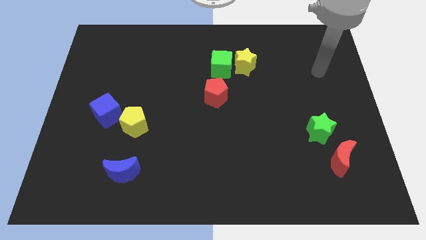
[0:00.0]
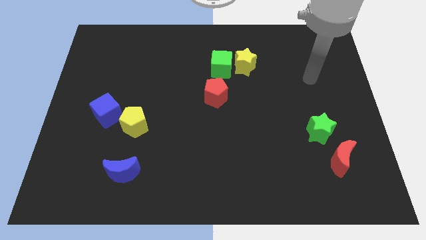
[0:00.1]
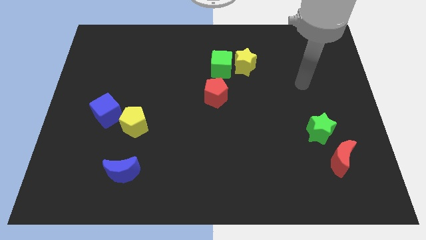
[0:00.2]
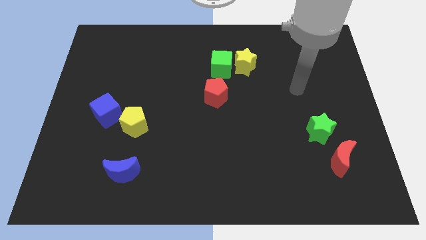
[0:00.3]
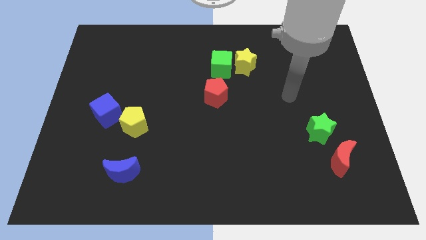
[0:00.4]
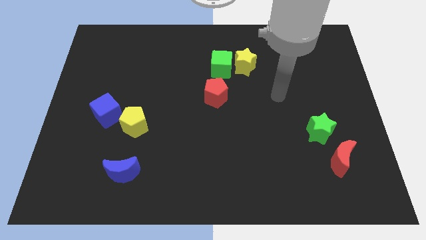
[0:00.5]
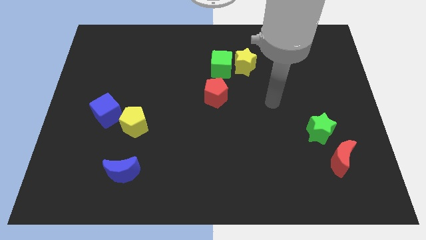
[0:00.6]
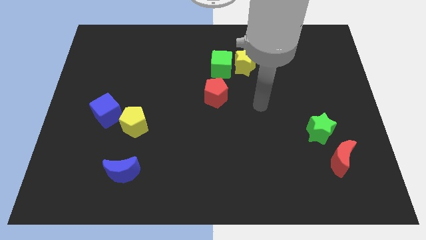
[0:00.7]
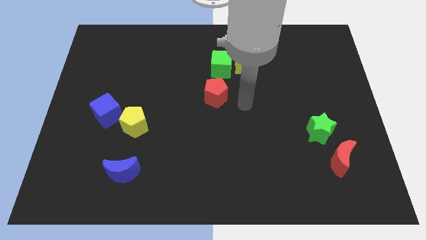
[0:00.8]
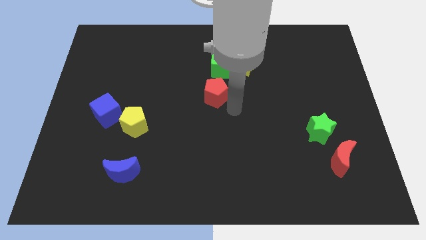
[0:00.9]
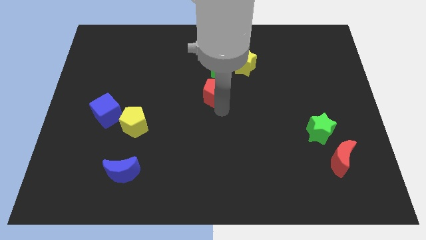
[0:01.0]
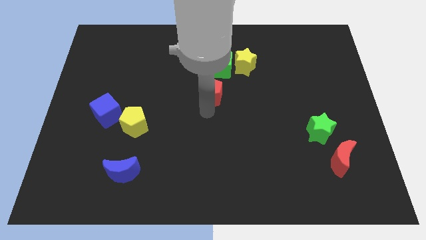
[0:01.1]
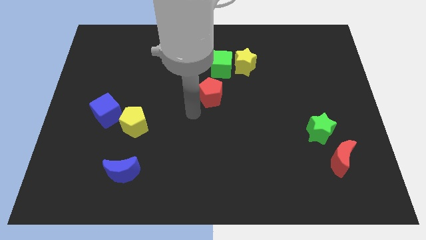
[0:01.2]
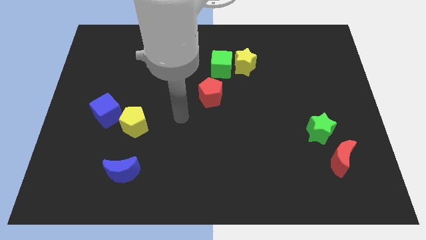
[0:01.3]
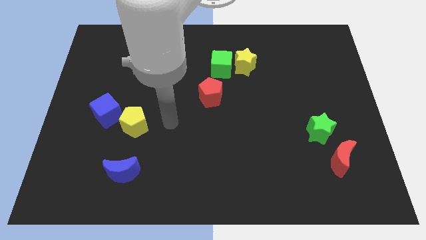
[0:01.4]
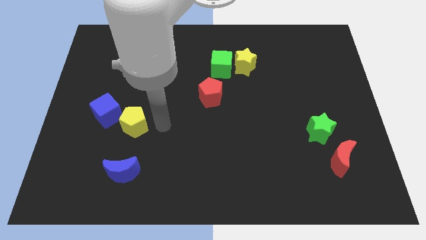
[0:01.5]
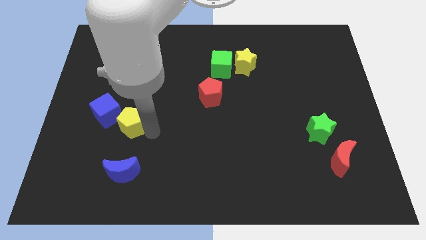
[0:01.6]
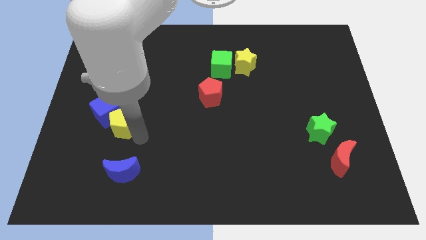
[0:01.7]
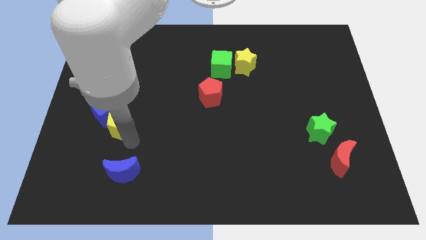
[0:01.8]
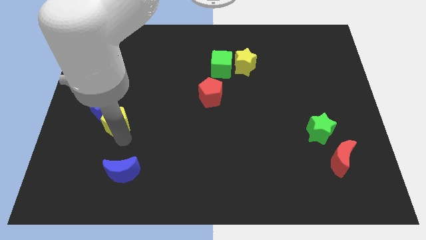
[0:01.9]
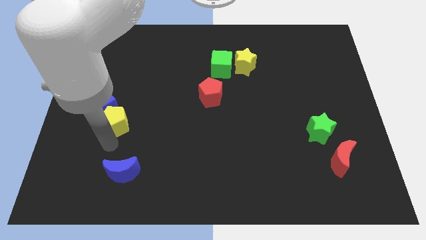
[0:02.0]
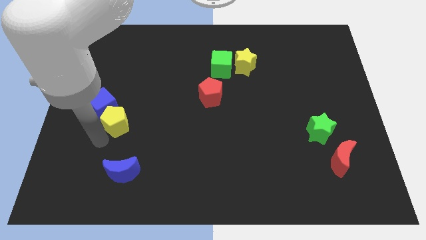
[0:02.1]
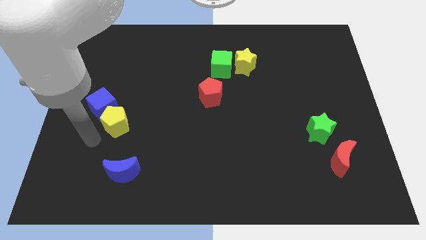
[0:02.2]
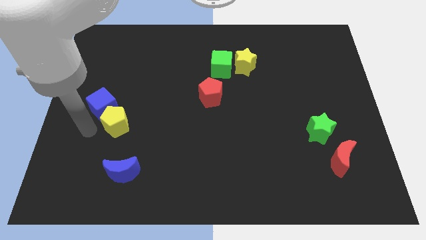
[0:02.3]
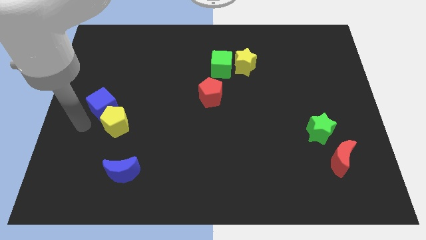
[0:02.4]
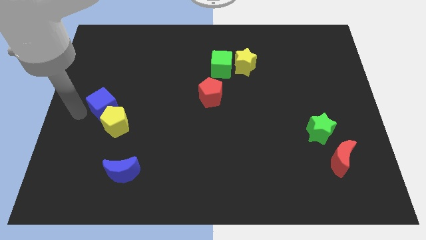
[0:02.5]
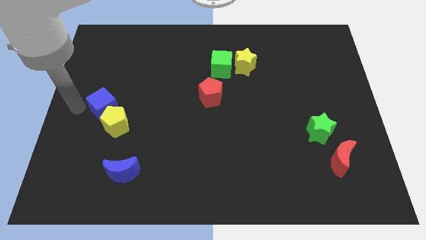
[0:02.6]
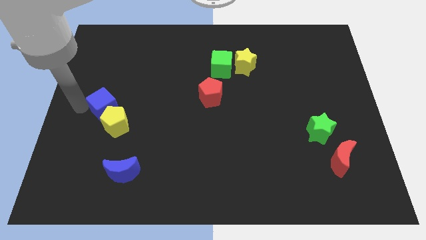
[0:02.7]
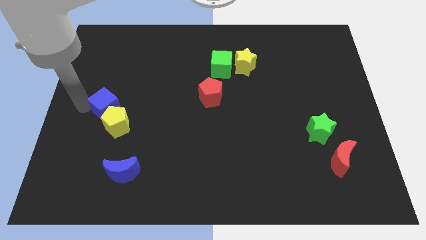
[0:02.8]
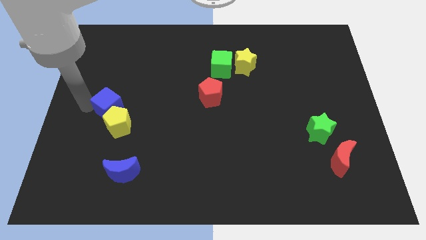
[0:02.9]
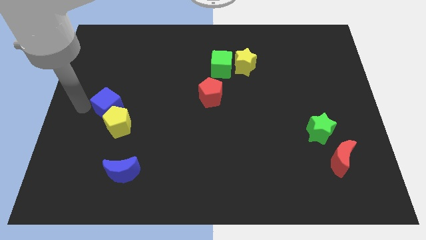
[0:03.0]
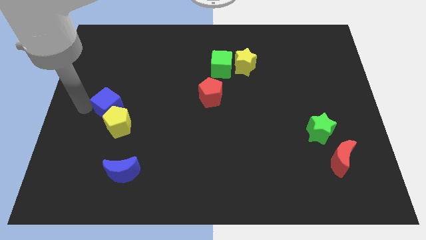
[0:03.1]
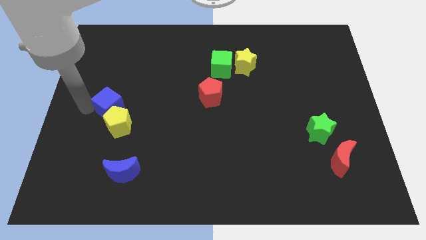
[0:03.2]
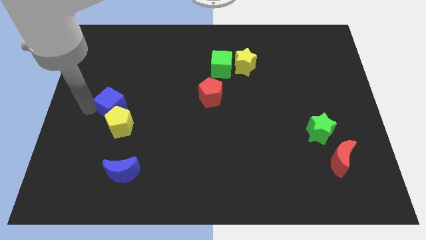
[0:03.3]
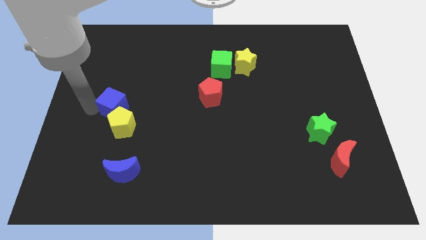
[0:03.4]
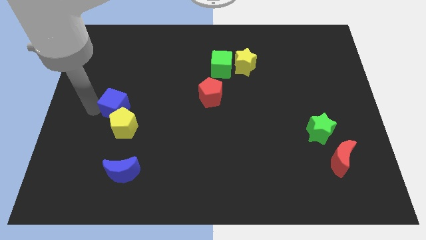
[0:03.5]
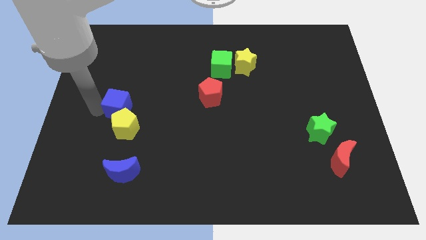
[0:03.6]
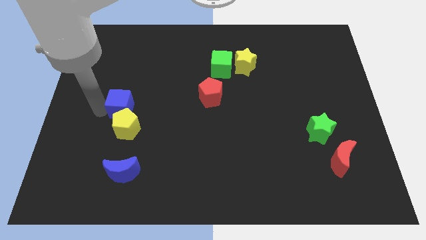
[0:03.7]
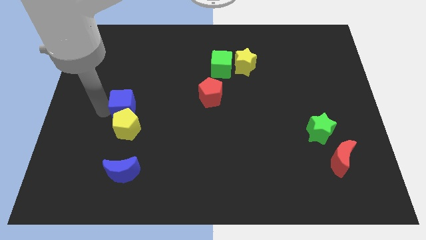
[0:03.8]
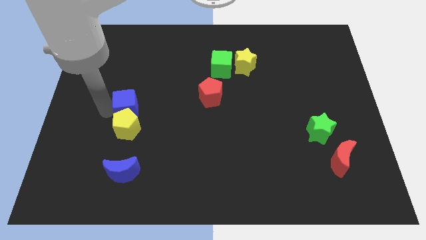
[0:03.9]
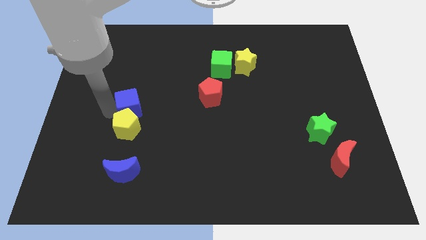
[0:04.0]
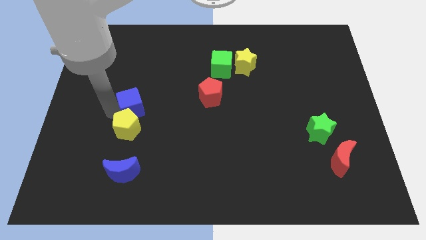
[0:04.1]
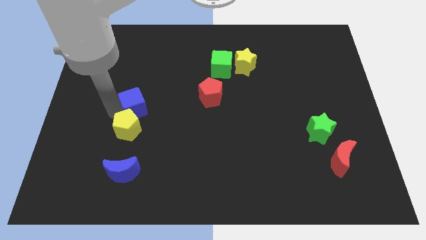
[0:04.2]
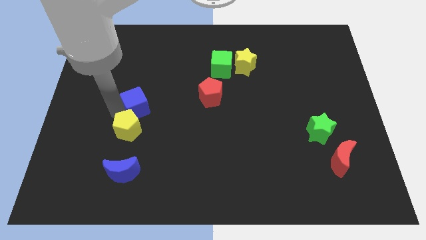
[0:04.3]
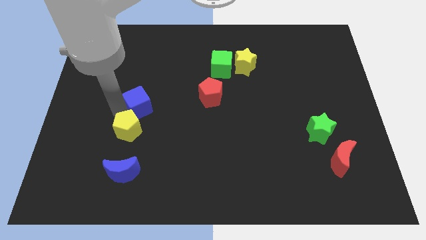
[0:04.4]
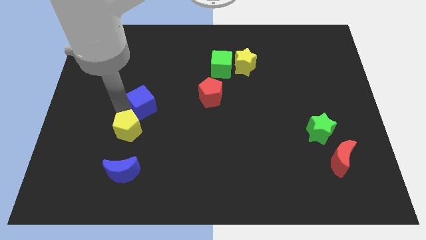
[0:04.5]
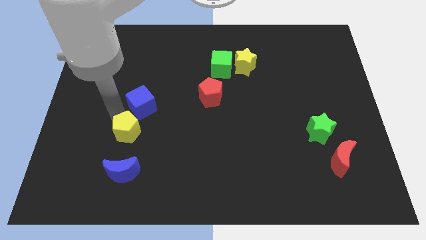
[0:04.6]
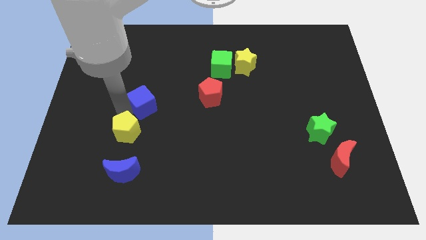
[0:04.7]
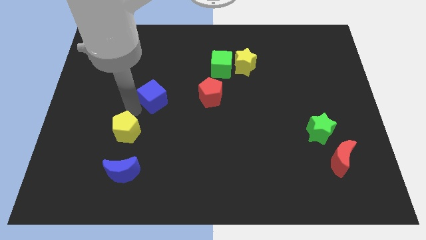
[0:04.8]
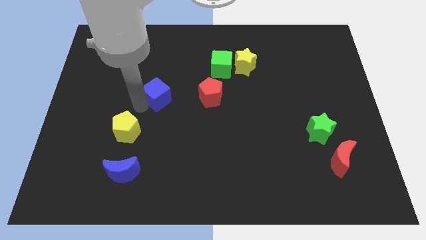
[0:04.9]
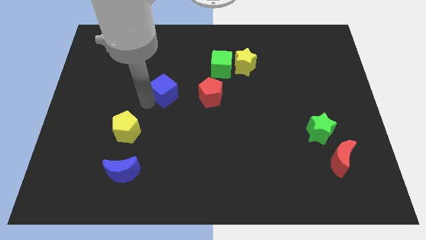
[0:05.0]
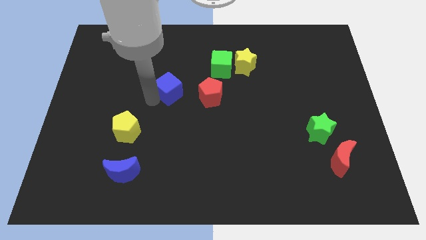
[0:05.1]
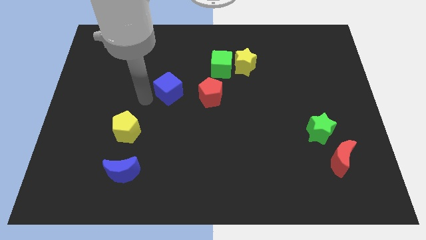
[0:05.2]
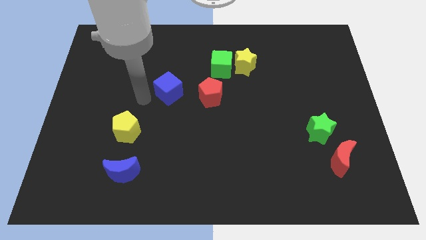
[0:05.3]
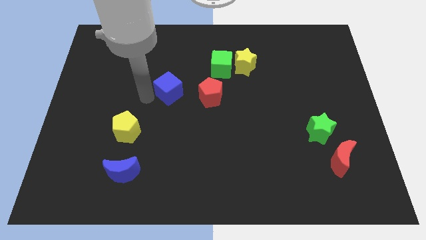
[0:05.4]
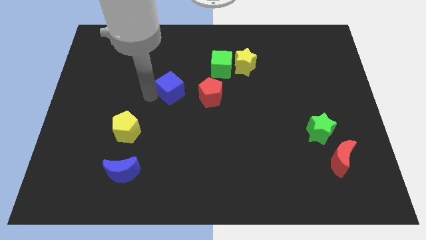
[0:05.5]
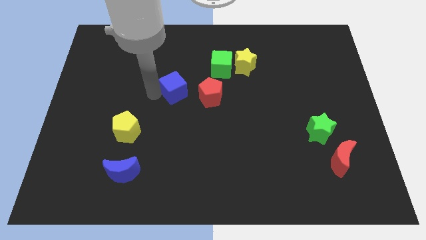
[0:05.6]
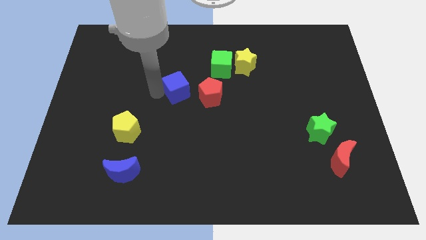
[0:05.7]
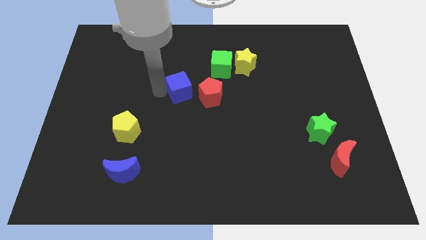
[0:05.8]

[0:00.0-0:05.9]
move the blue cube to the bottom left of the green cube

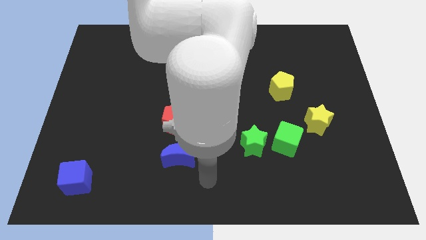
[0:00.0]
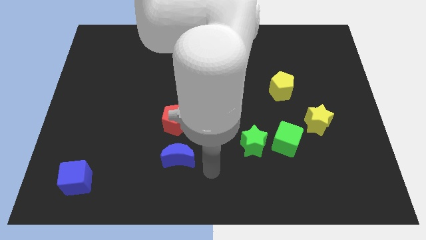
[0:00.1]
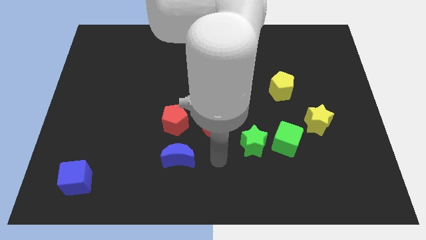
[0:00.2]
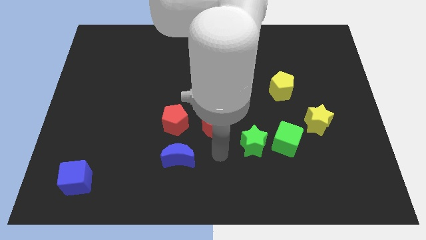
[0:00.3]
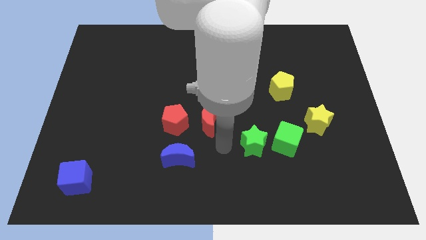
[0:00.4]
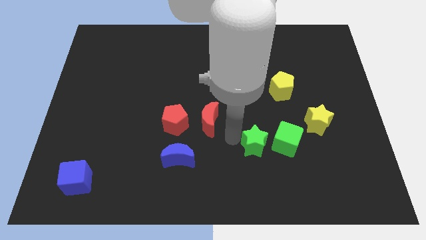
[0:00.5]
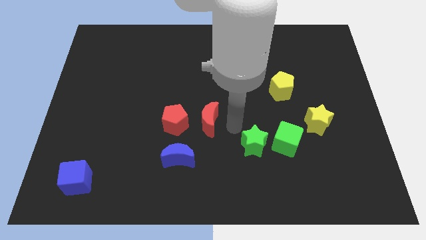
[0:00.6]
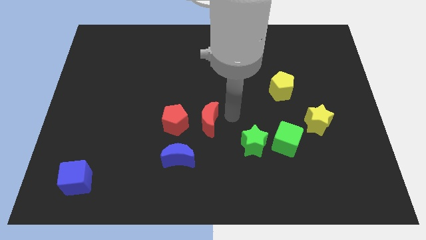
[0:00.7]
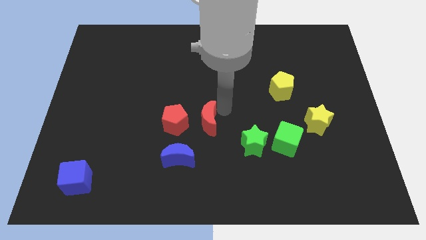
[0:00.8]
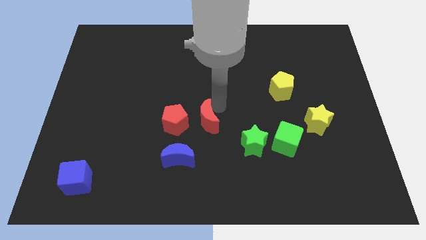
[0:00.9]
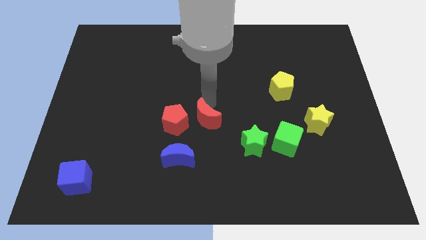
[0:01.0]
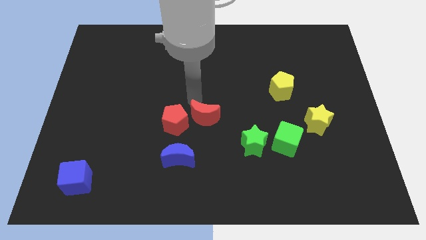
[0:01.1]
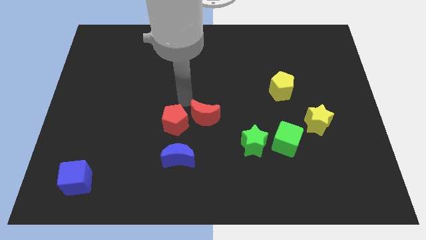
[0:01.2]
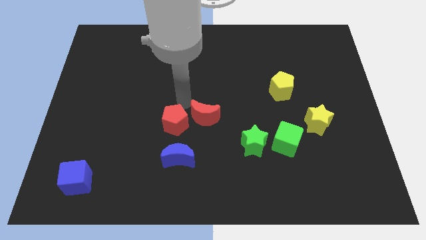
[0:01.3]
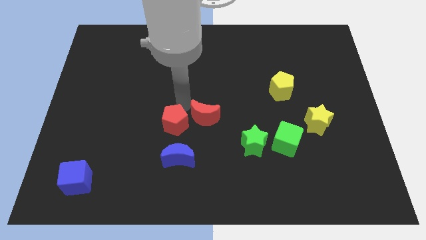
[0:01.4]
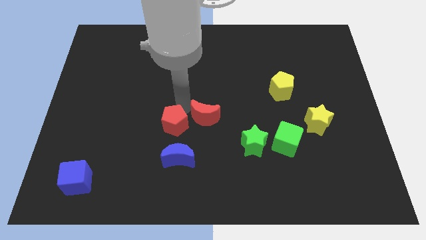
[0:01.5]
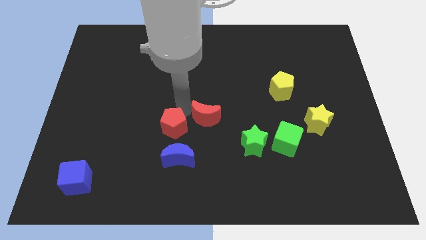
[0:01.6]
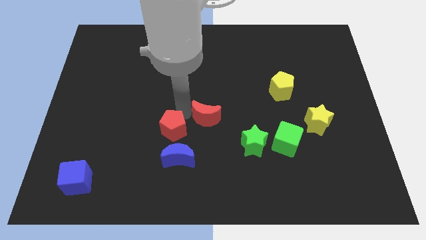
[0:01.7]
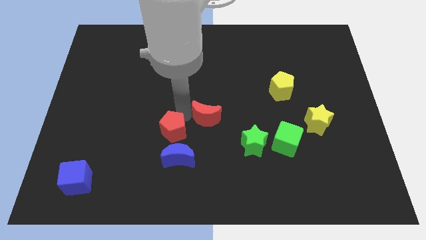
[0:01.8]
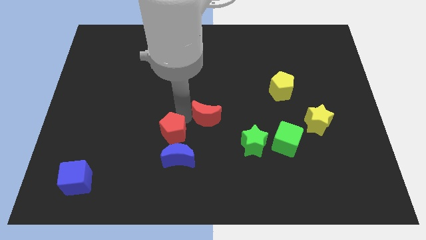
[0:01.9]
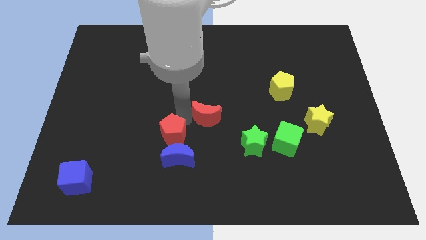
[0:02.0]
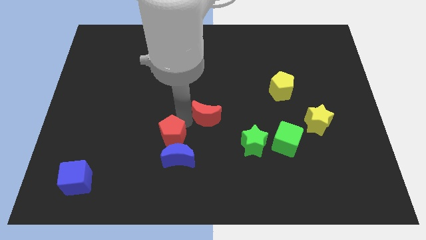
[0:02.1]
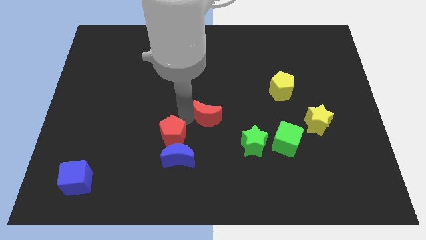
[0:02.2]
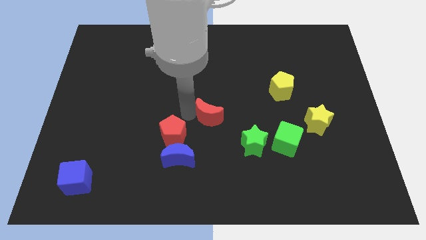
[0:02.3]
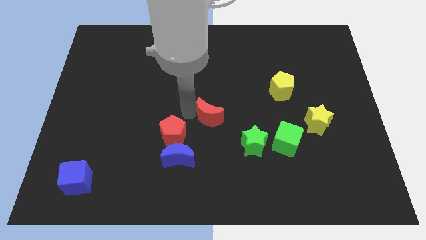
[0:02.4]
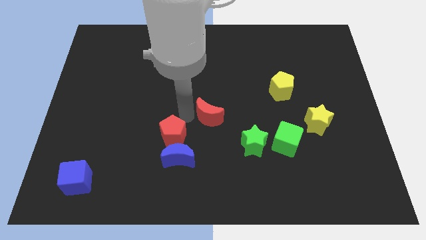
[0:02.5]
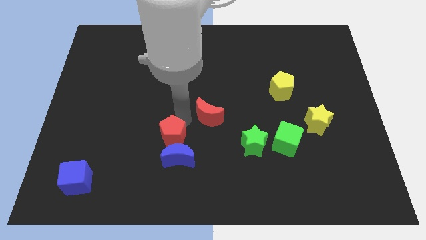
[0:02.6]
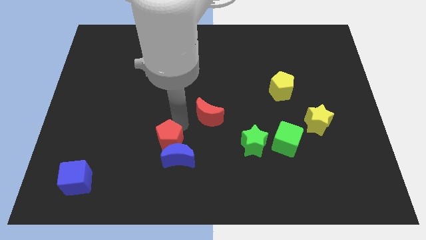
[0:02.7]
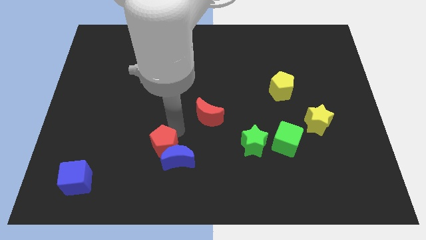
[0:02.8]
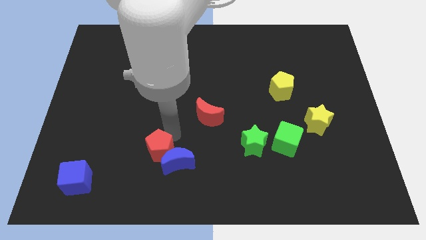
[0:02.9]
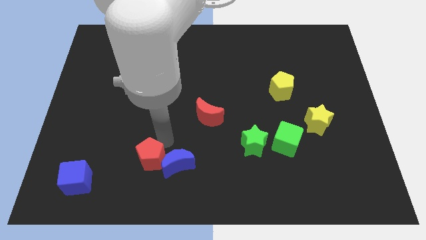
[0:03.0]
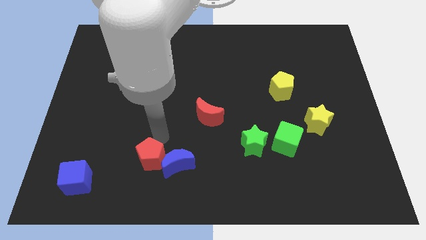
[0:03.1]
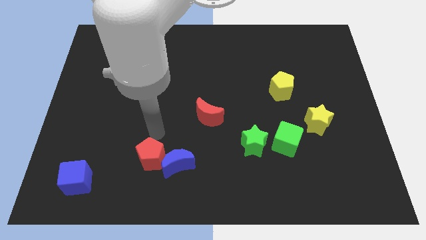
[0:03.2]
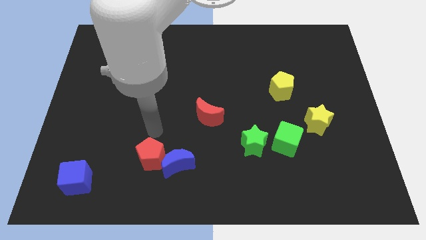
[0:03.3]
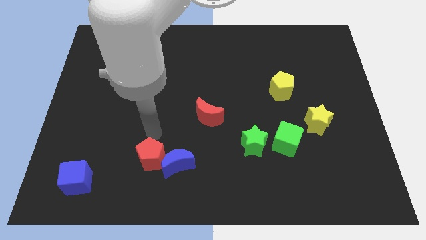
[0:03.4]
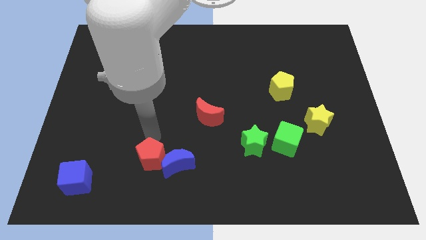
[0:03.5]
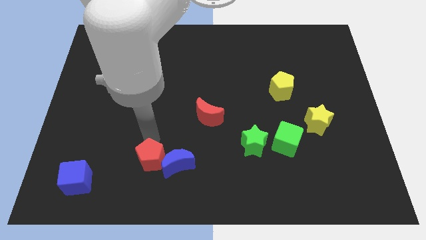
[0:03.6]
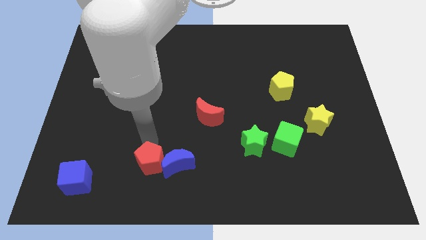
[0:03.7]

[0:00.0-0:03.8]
put the red pentagon diagonally down and to the left of the blue moon
